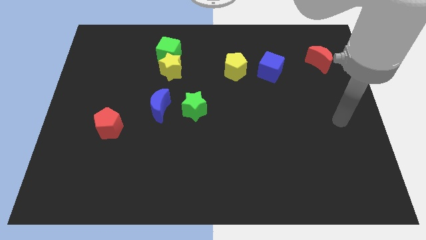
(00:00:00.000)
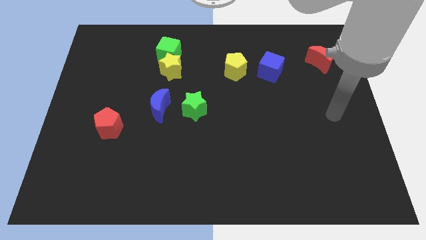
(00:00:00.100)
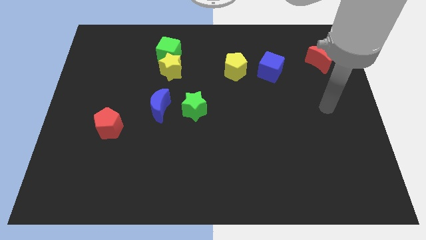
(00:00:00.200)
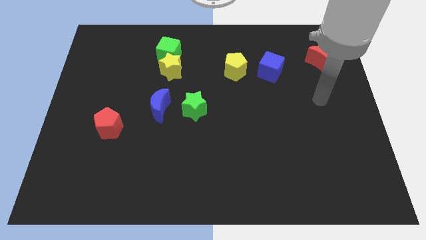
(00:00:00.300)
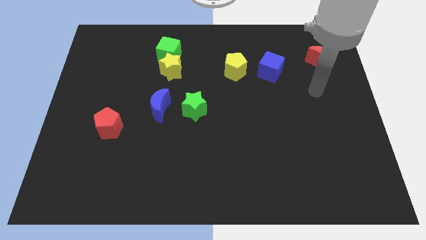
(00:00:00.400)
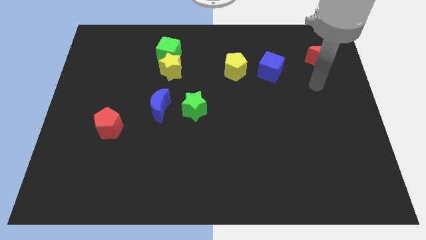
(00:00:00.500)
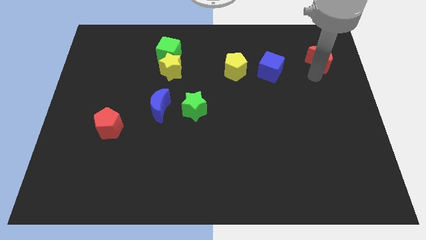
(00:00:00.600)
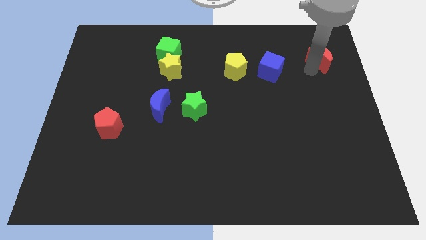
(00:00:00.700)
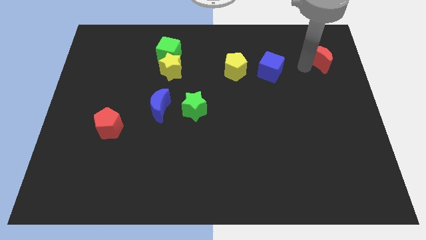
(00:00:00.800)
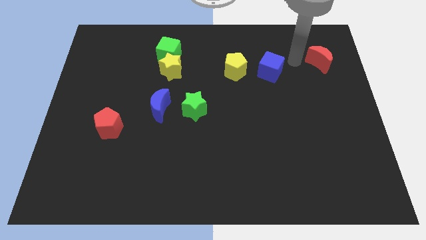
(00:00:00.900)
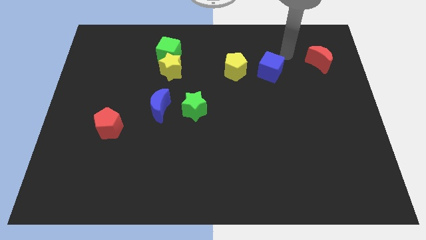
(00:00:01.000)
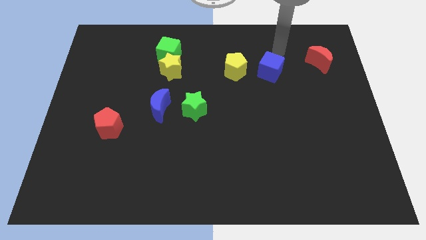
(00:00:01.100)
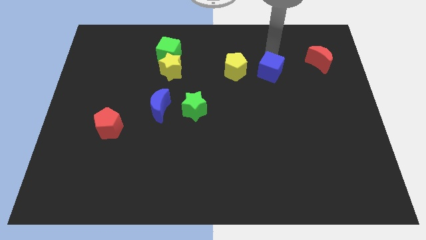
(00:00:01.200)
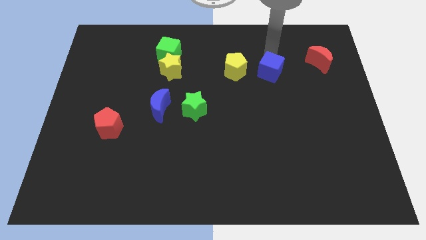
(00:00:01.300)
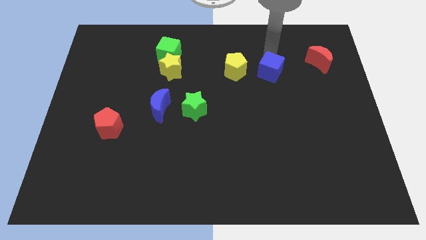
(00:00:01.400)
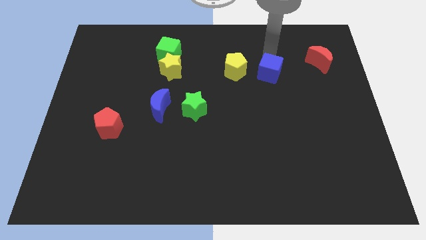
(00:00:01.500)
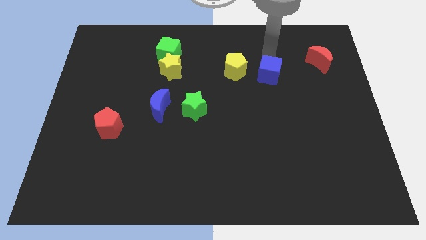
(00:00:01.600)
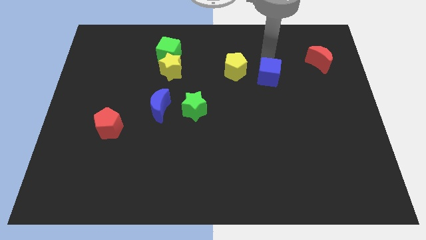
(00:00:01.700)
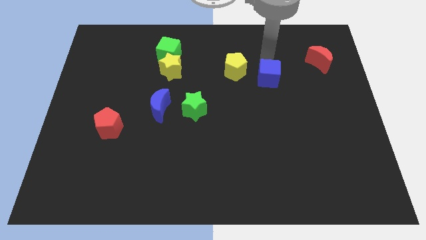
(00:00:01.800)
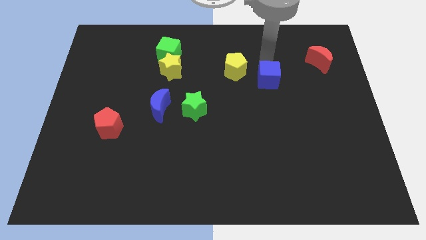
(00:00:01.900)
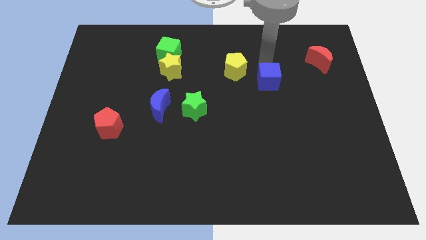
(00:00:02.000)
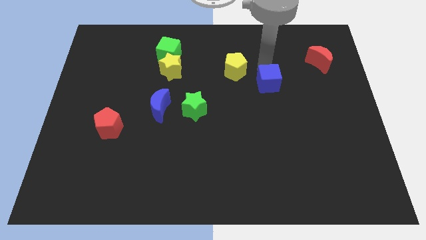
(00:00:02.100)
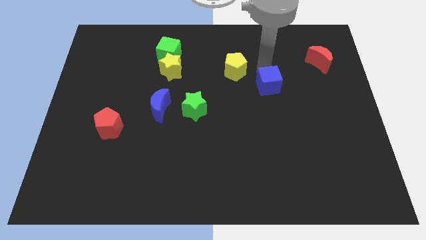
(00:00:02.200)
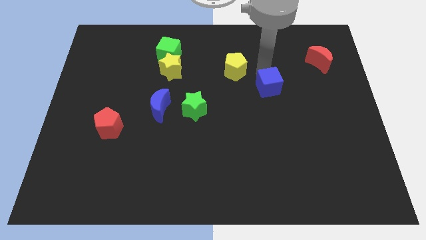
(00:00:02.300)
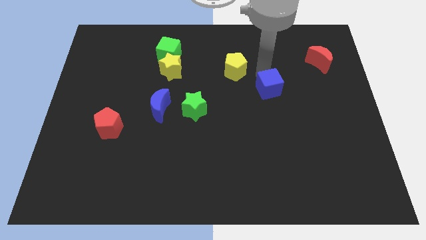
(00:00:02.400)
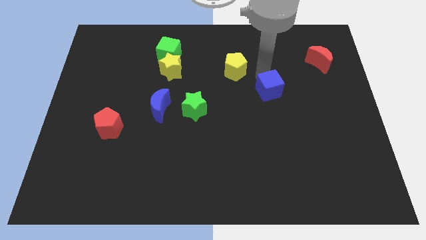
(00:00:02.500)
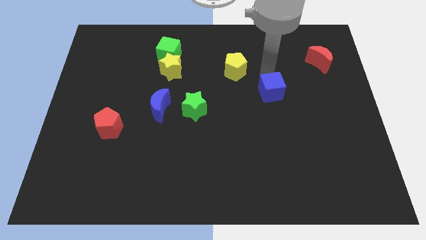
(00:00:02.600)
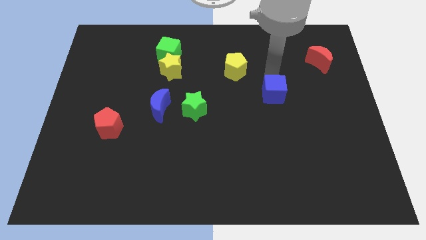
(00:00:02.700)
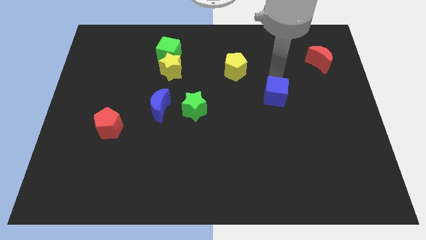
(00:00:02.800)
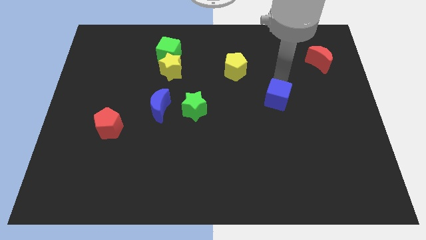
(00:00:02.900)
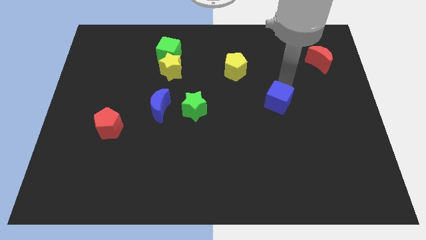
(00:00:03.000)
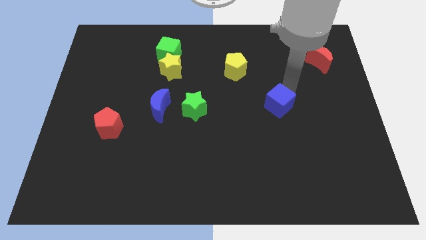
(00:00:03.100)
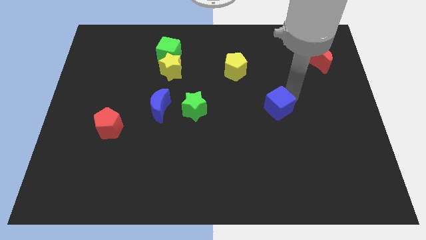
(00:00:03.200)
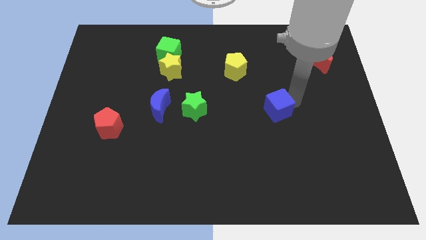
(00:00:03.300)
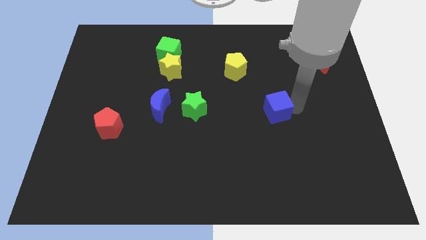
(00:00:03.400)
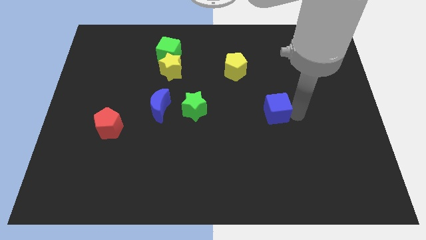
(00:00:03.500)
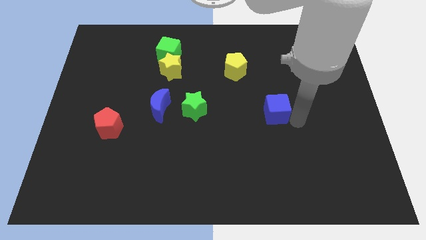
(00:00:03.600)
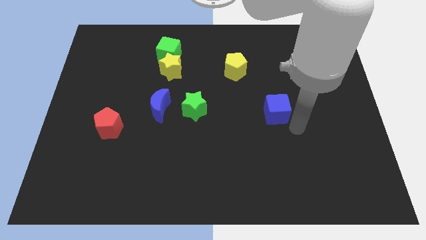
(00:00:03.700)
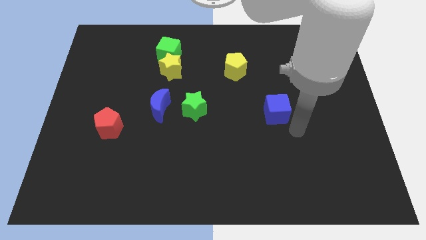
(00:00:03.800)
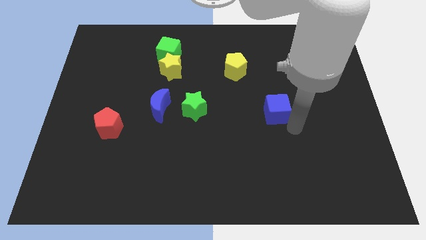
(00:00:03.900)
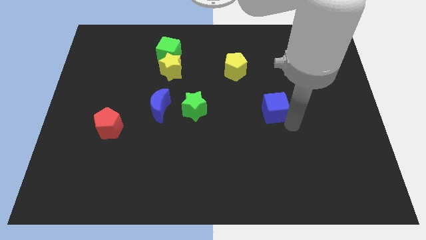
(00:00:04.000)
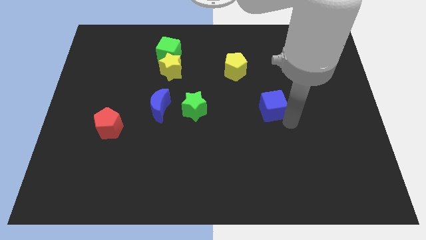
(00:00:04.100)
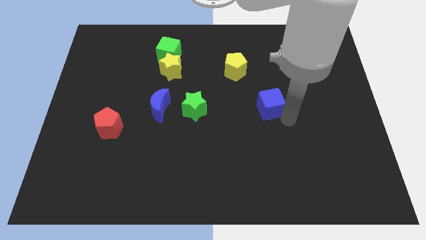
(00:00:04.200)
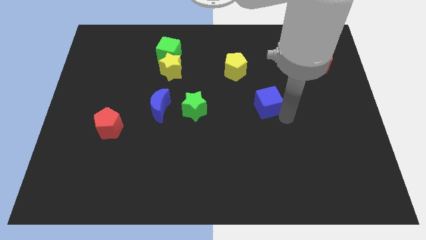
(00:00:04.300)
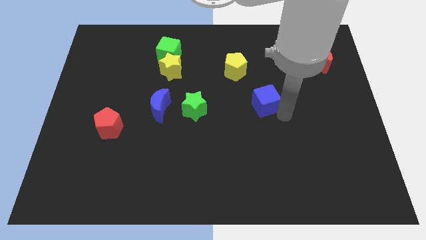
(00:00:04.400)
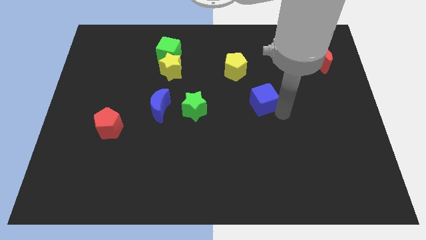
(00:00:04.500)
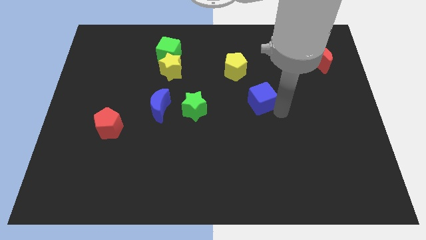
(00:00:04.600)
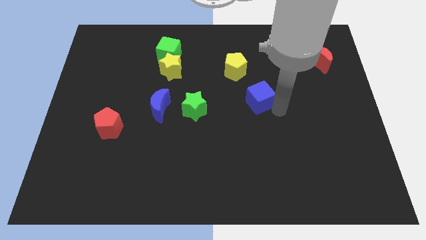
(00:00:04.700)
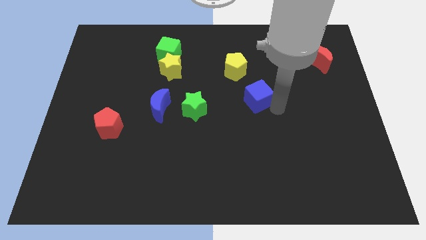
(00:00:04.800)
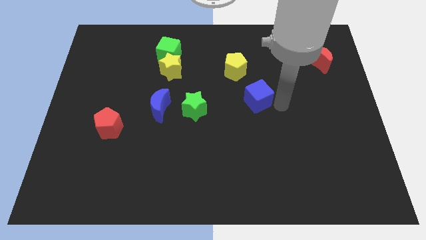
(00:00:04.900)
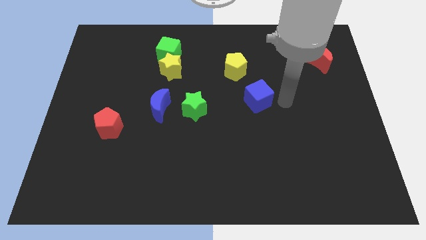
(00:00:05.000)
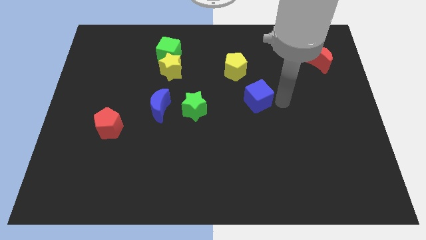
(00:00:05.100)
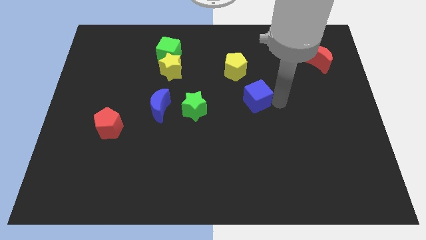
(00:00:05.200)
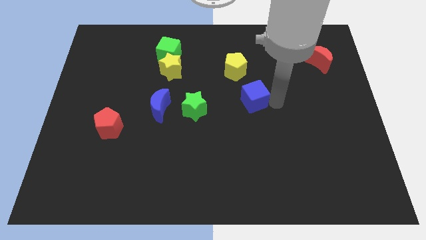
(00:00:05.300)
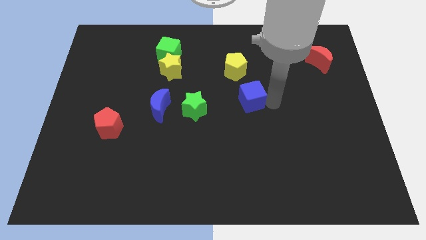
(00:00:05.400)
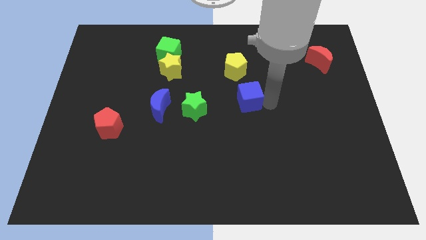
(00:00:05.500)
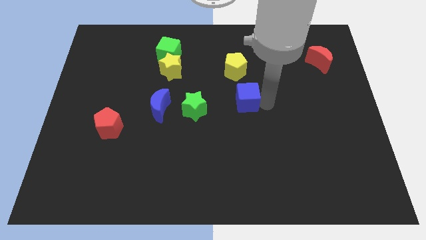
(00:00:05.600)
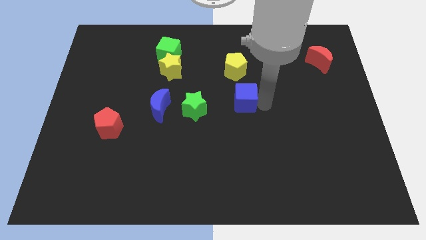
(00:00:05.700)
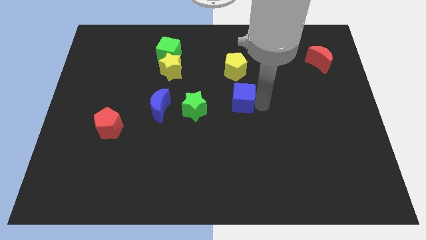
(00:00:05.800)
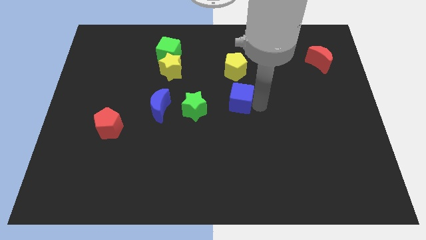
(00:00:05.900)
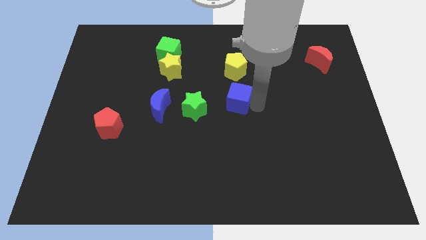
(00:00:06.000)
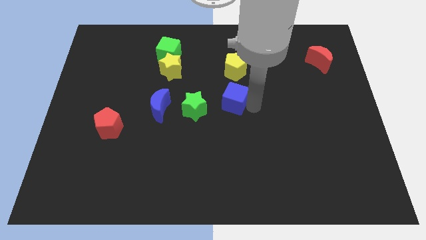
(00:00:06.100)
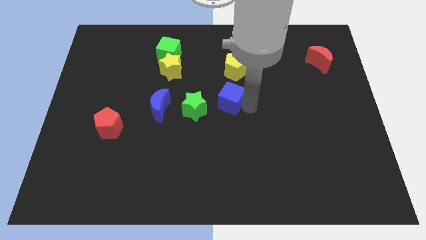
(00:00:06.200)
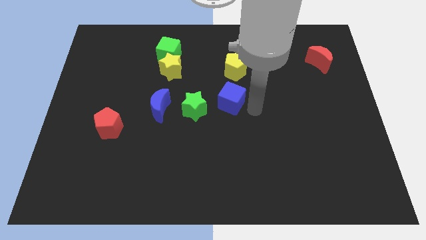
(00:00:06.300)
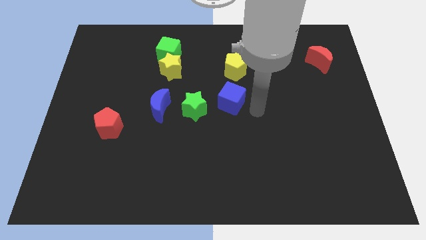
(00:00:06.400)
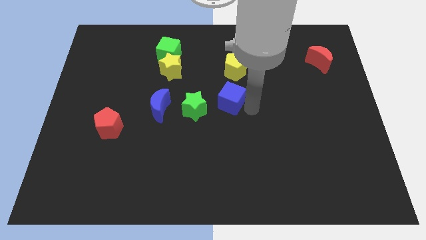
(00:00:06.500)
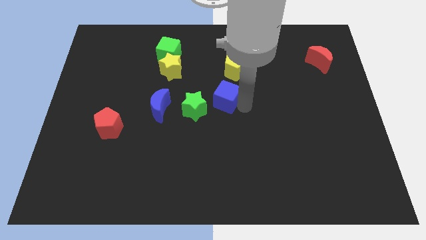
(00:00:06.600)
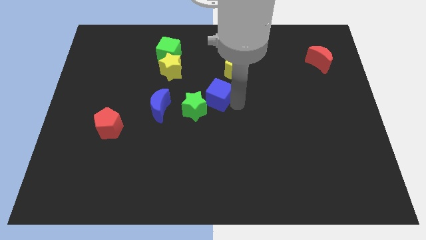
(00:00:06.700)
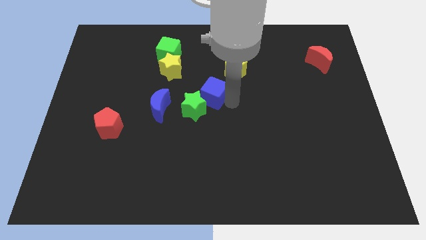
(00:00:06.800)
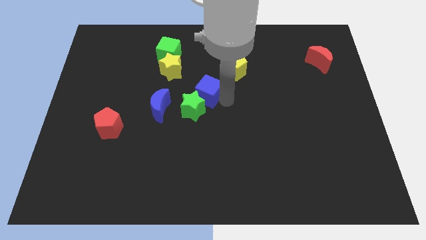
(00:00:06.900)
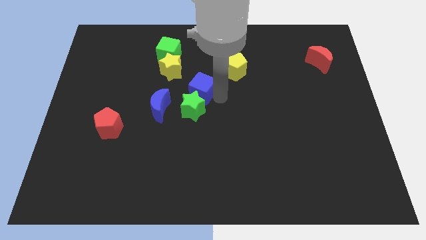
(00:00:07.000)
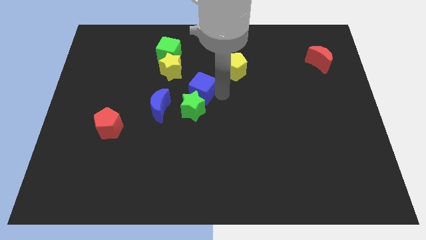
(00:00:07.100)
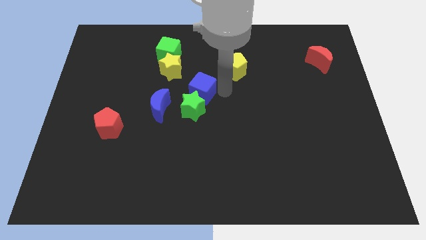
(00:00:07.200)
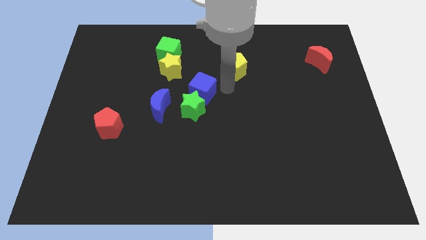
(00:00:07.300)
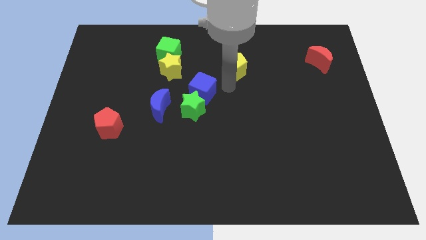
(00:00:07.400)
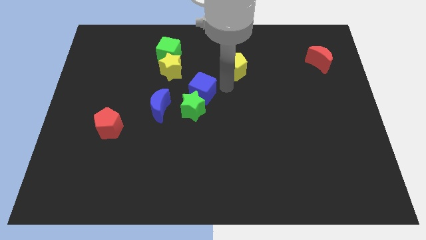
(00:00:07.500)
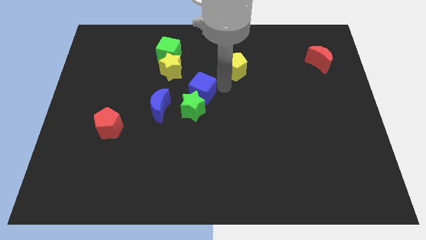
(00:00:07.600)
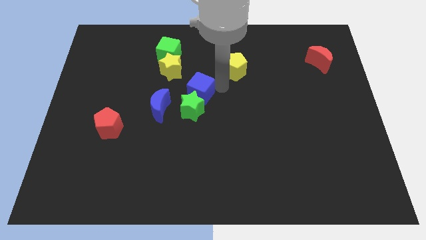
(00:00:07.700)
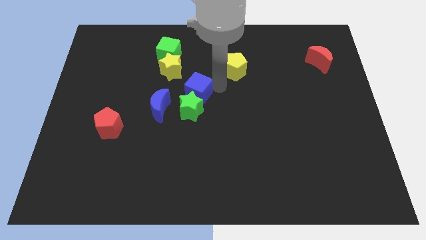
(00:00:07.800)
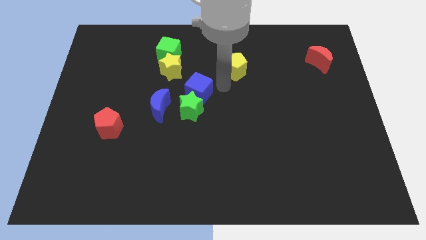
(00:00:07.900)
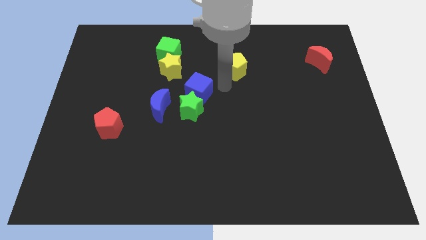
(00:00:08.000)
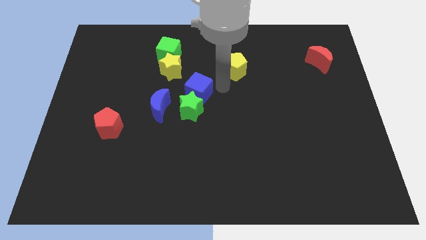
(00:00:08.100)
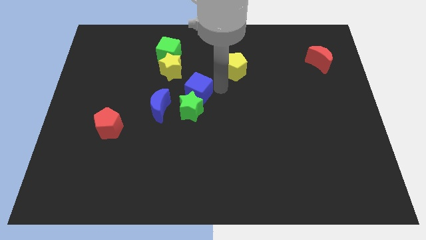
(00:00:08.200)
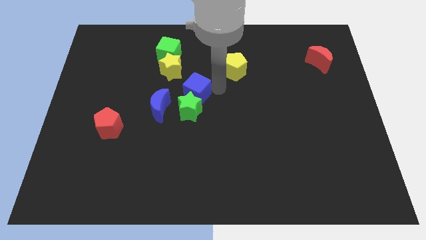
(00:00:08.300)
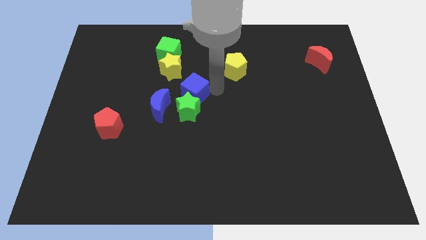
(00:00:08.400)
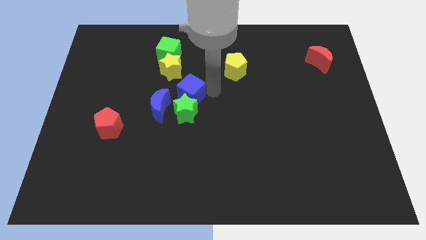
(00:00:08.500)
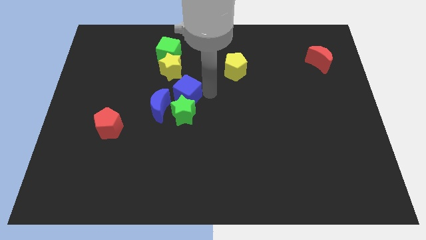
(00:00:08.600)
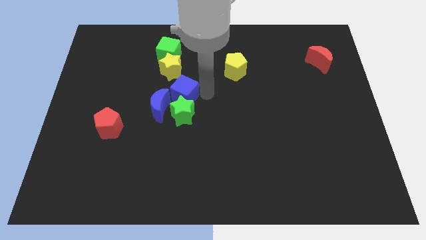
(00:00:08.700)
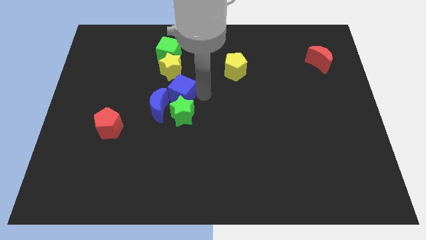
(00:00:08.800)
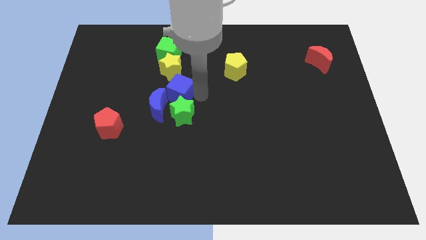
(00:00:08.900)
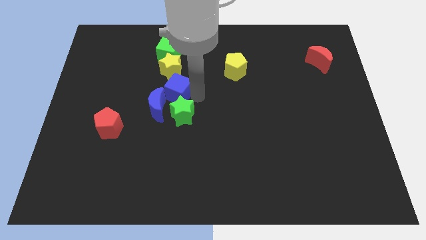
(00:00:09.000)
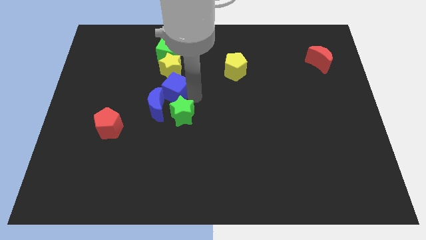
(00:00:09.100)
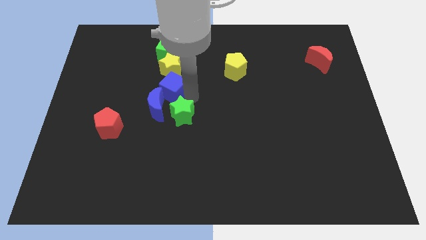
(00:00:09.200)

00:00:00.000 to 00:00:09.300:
move the blue cube next to the blue moon
